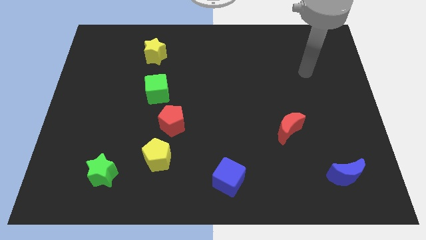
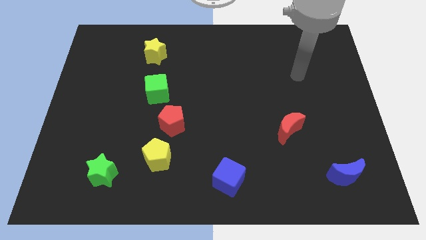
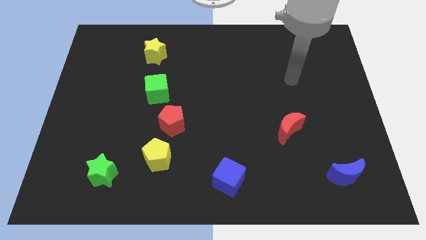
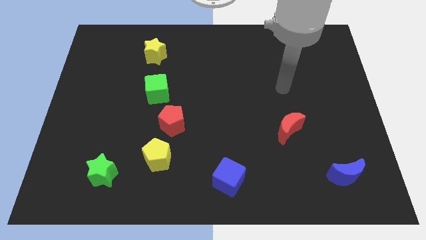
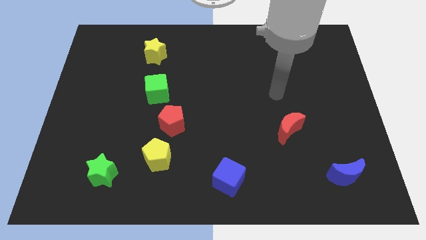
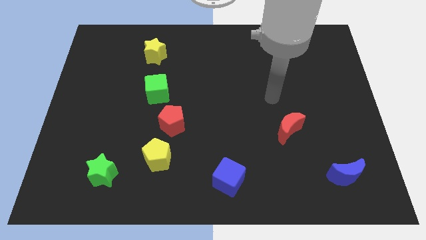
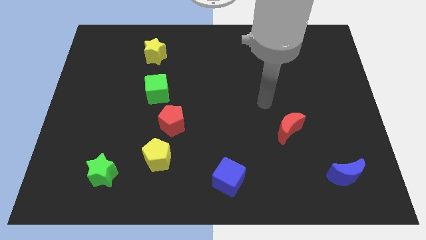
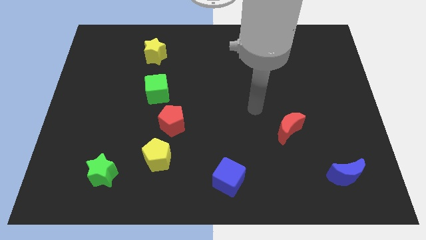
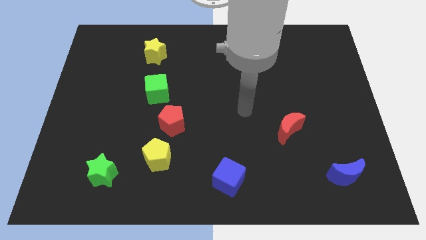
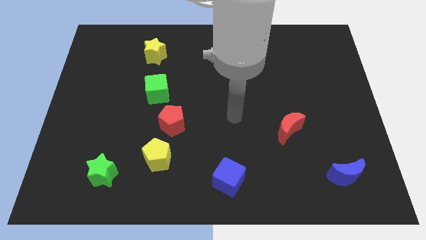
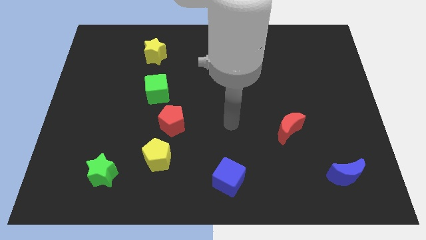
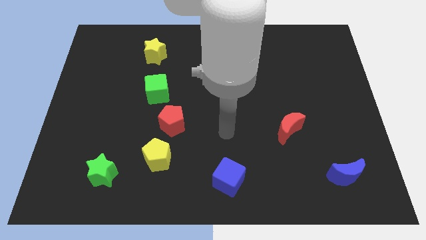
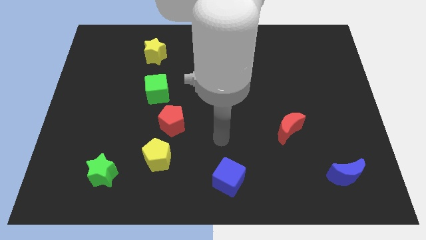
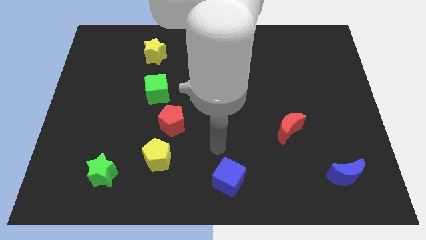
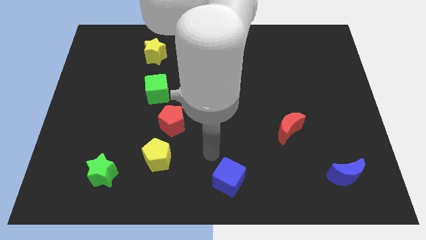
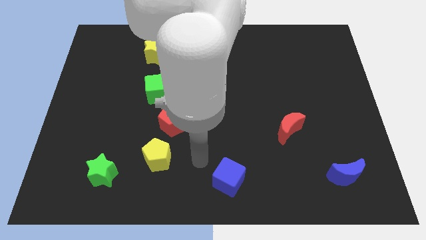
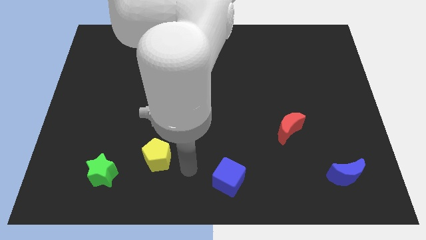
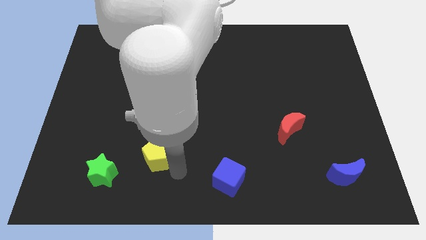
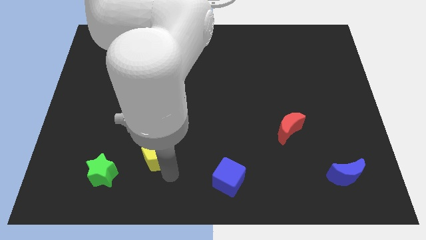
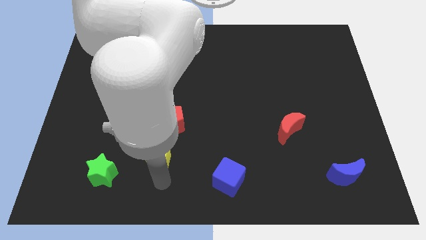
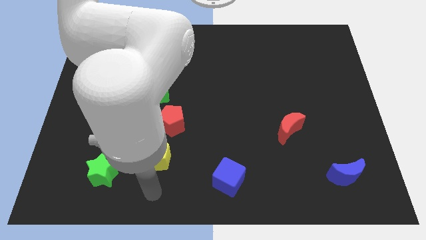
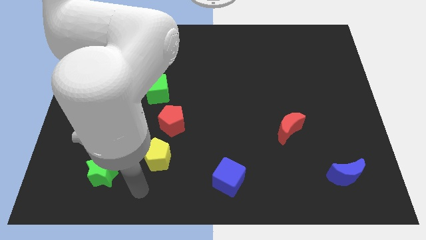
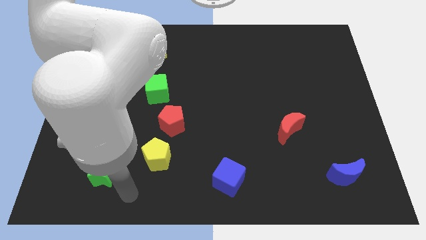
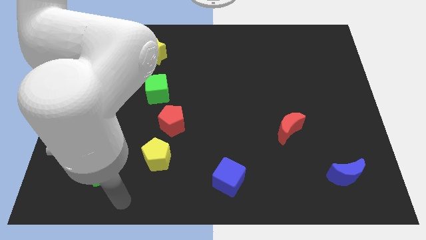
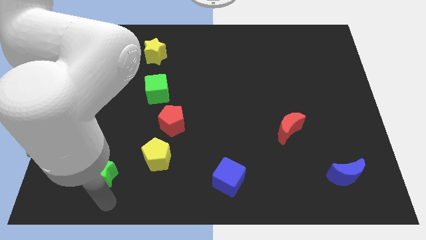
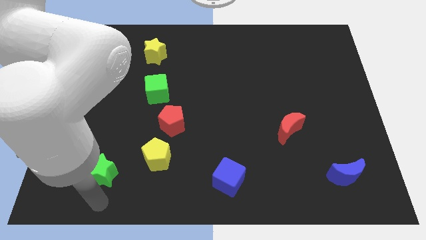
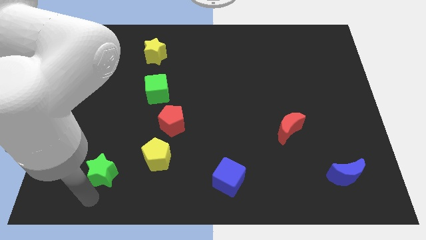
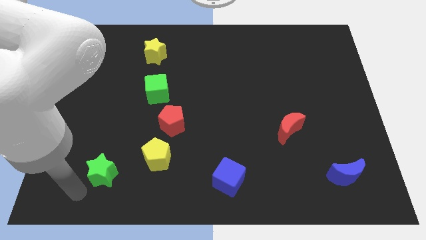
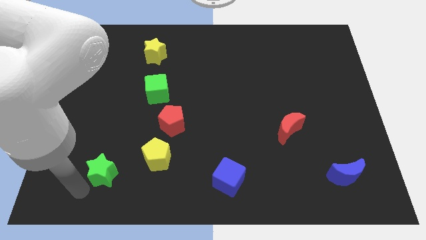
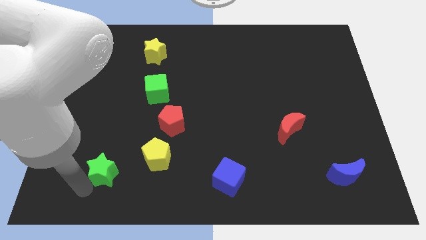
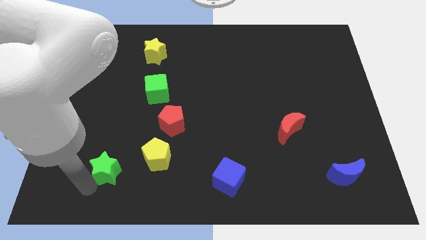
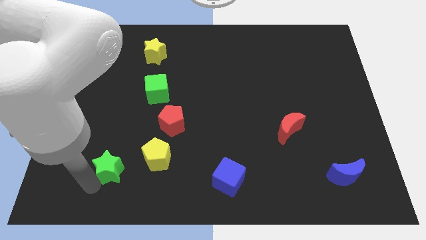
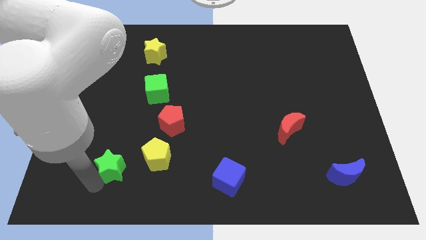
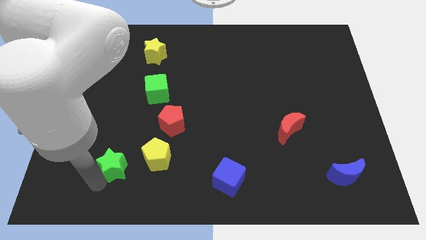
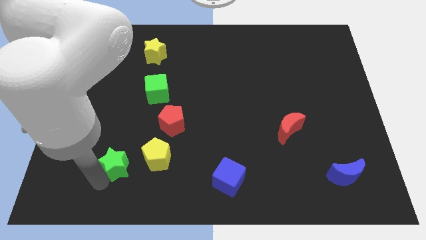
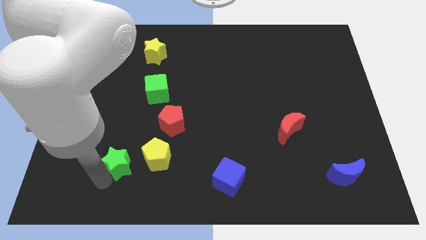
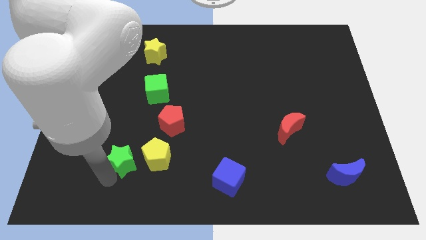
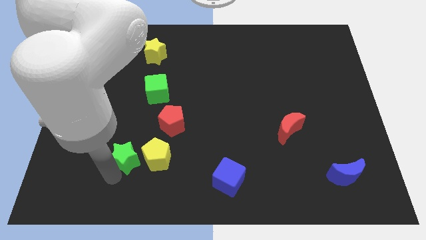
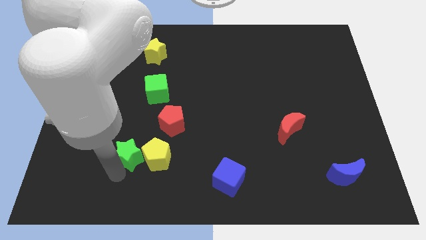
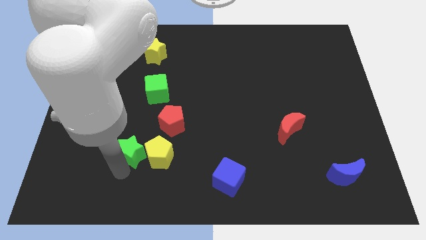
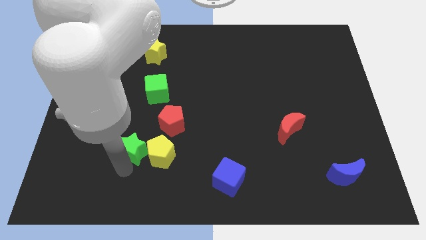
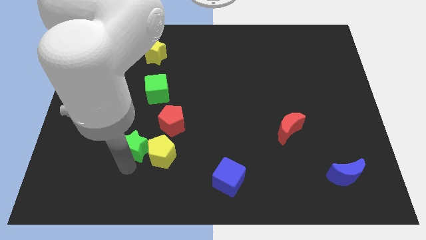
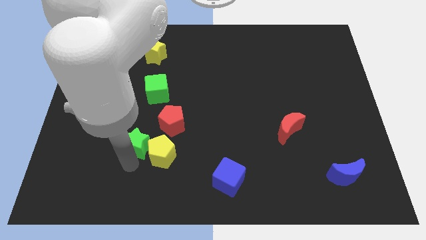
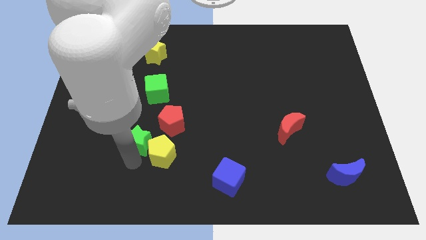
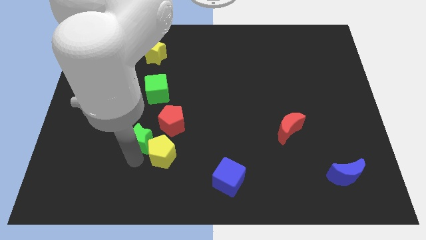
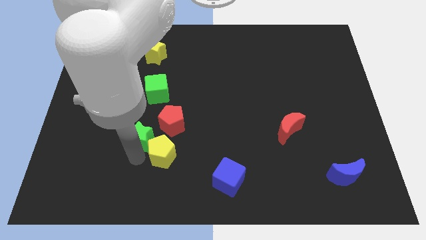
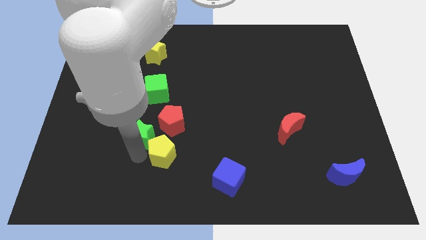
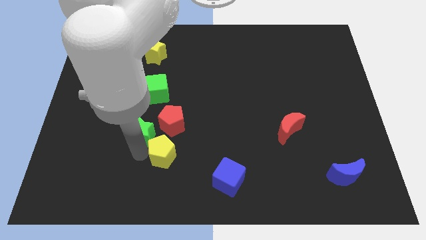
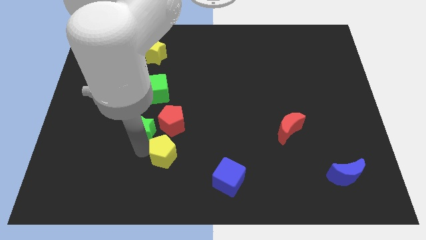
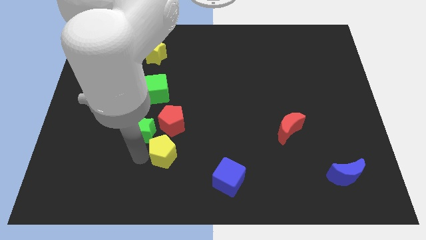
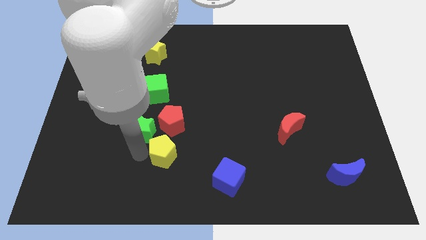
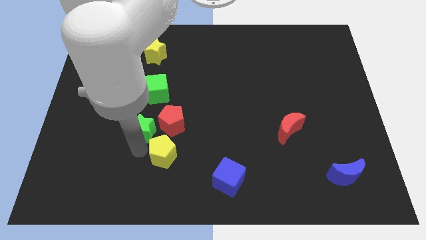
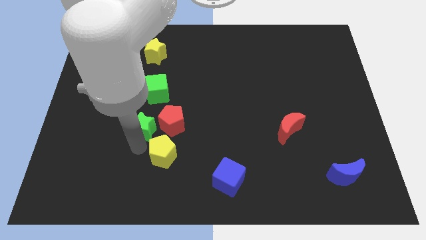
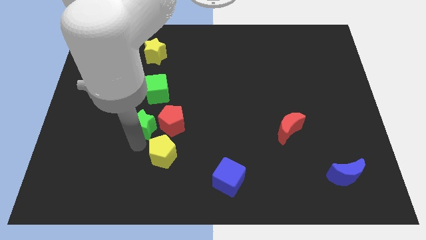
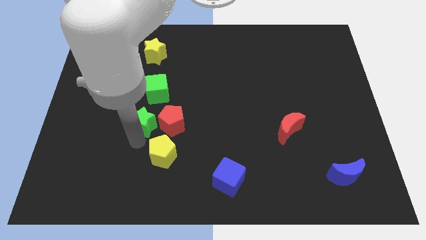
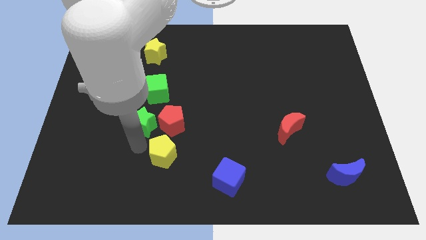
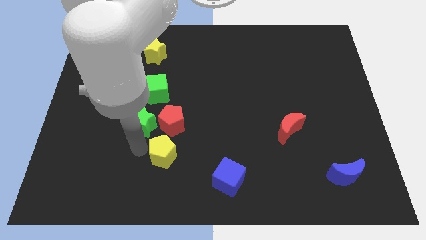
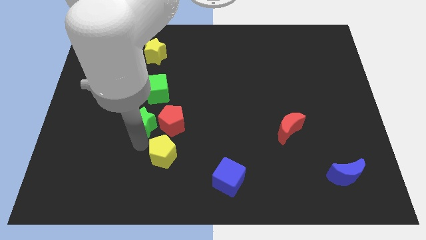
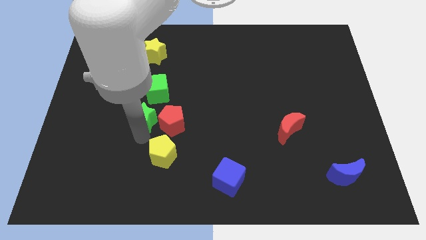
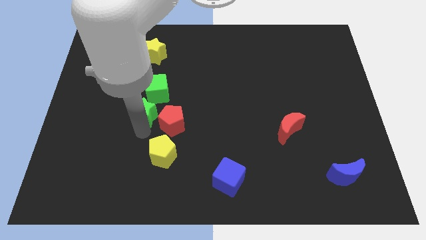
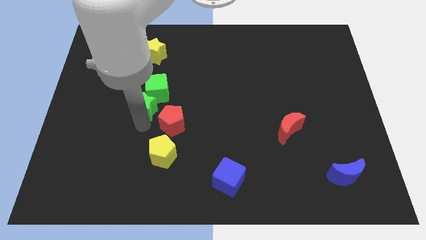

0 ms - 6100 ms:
push the green star to the green cube
